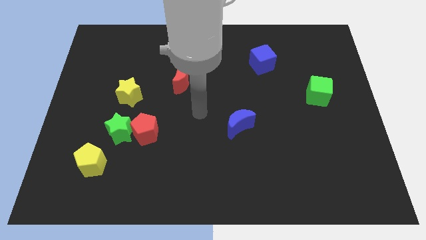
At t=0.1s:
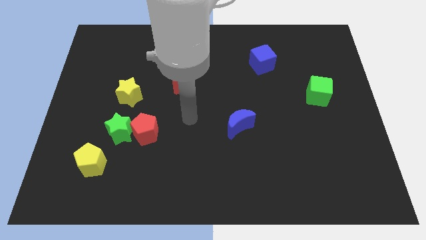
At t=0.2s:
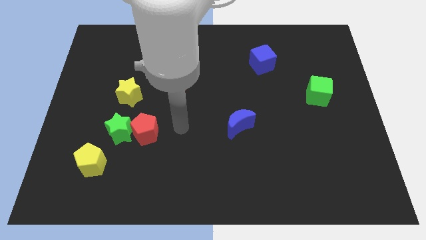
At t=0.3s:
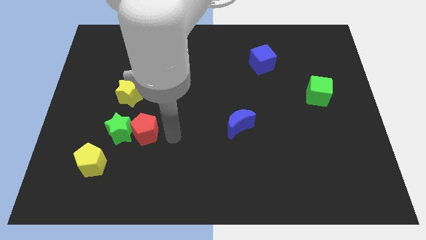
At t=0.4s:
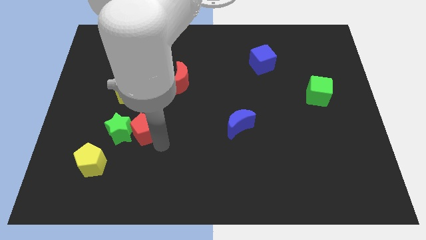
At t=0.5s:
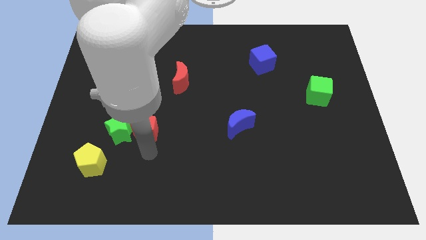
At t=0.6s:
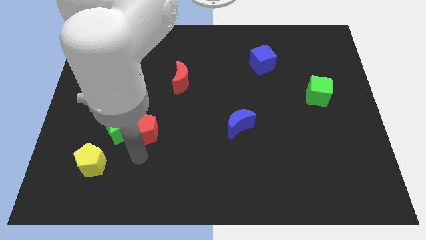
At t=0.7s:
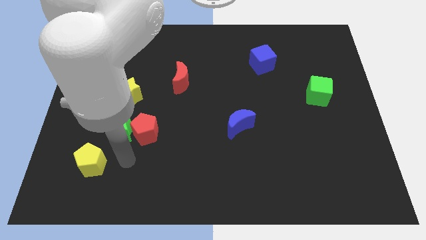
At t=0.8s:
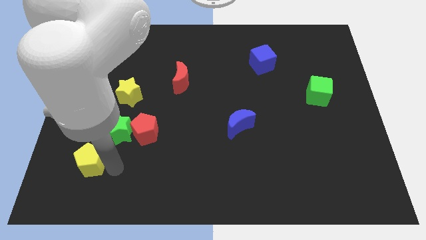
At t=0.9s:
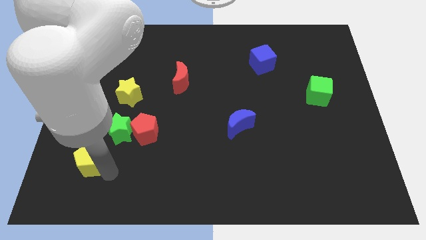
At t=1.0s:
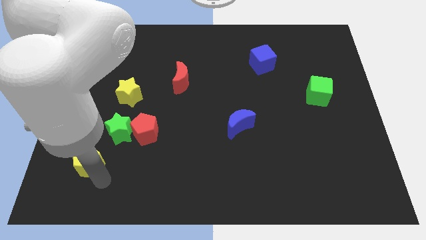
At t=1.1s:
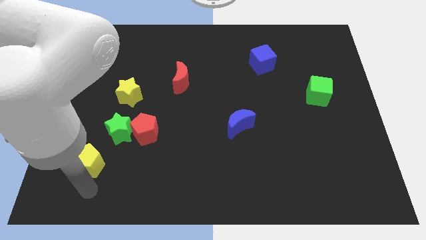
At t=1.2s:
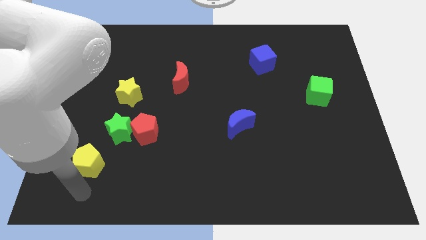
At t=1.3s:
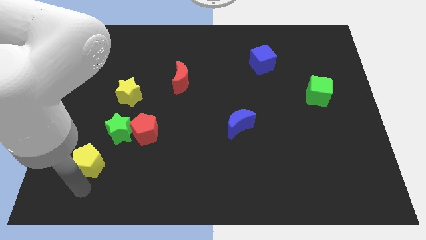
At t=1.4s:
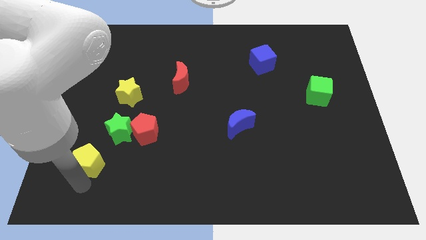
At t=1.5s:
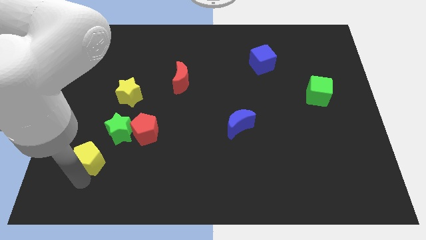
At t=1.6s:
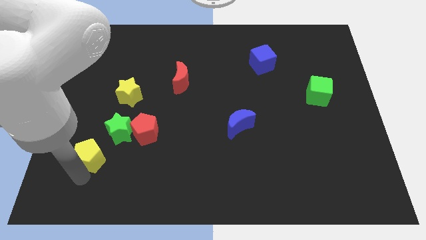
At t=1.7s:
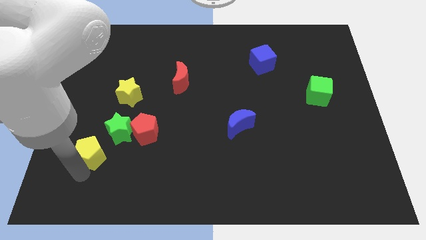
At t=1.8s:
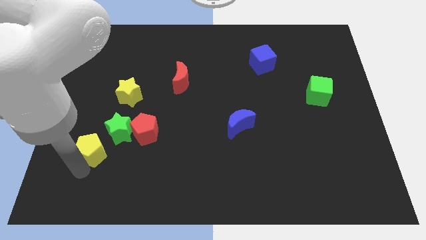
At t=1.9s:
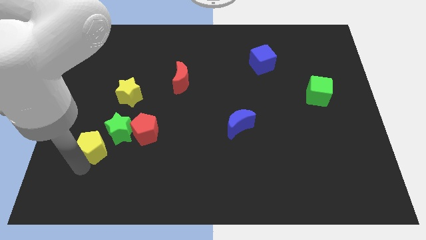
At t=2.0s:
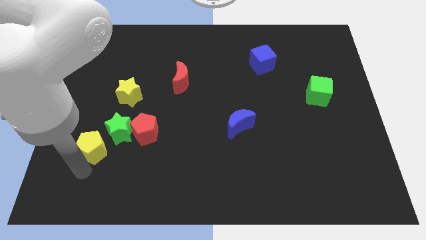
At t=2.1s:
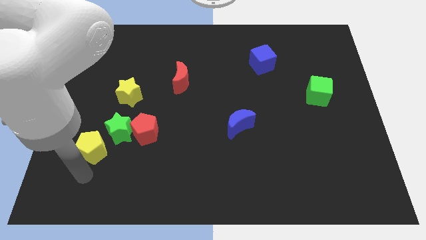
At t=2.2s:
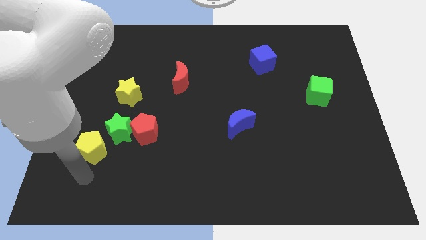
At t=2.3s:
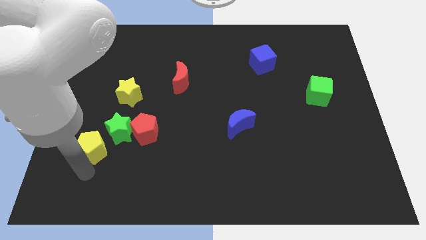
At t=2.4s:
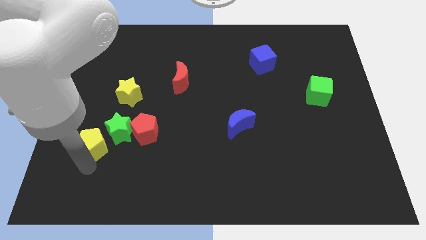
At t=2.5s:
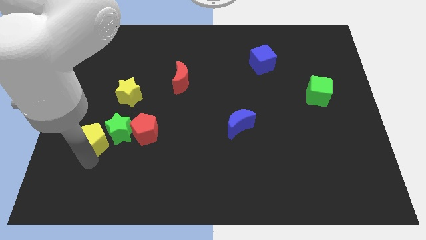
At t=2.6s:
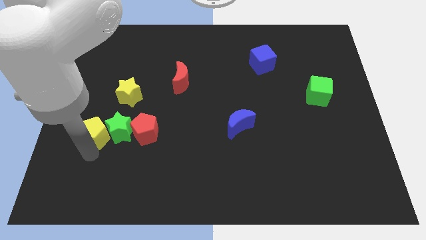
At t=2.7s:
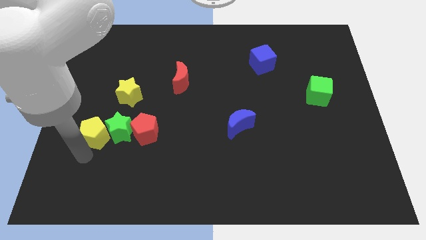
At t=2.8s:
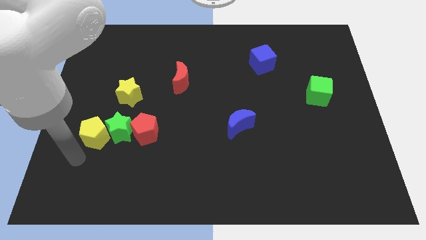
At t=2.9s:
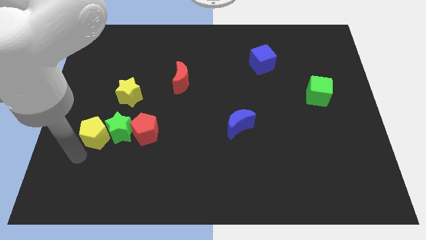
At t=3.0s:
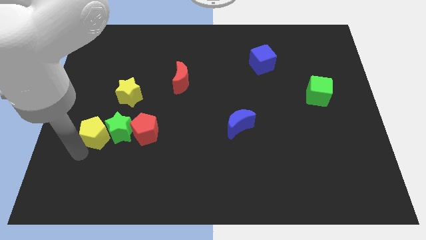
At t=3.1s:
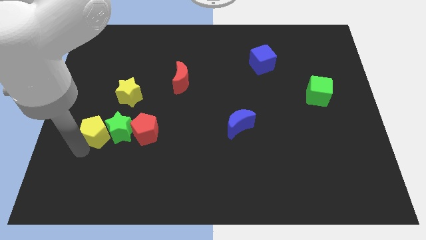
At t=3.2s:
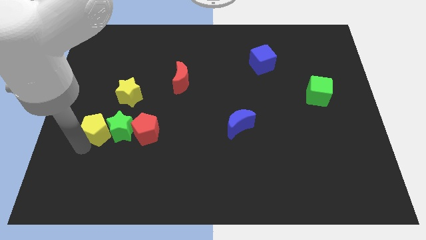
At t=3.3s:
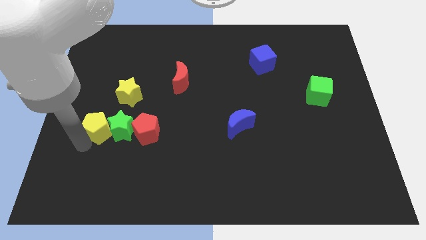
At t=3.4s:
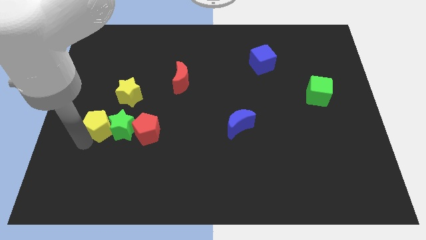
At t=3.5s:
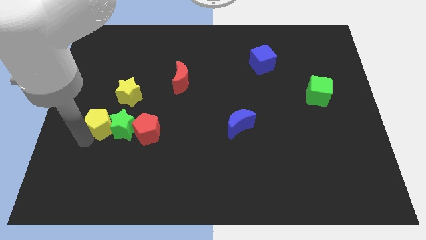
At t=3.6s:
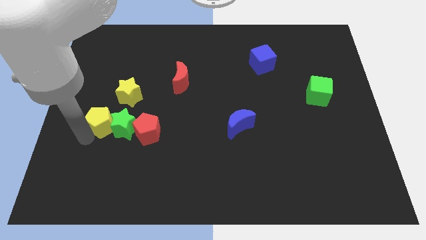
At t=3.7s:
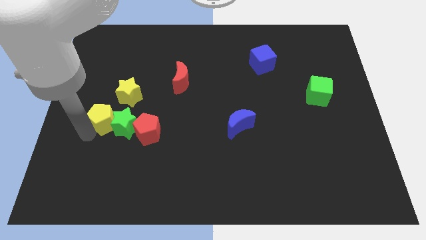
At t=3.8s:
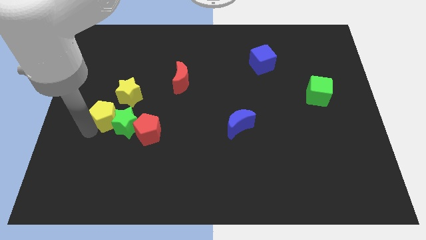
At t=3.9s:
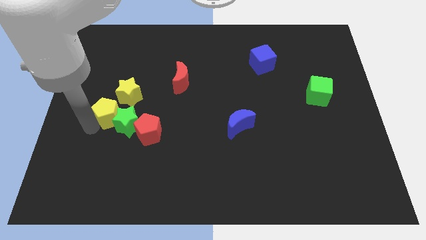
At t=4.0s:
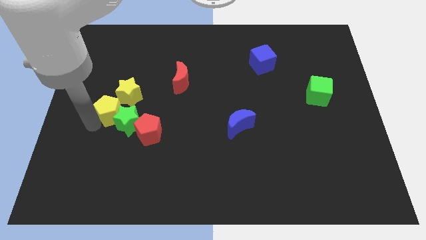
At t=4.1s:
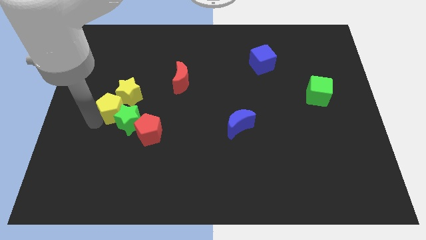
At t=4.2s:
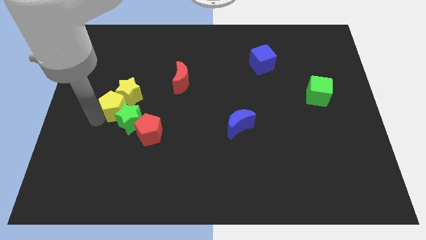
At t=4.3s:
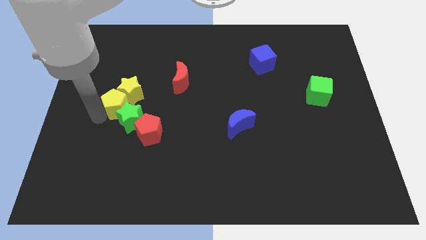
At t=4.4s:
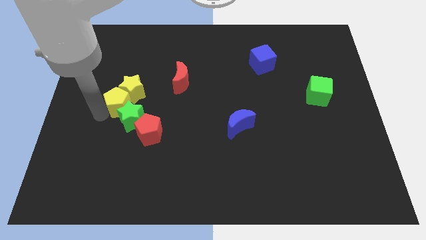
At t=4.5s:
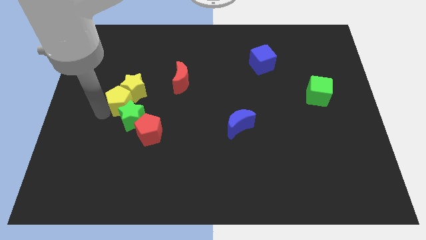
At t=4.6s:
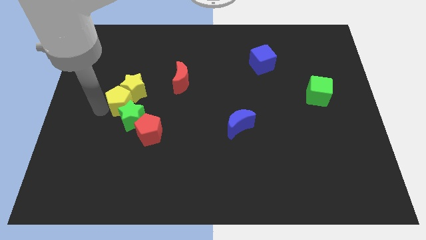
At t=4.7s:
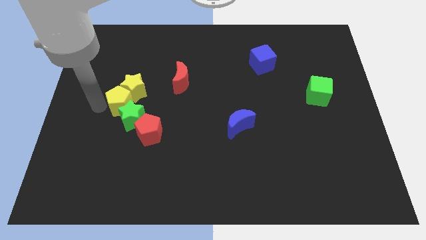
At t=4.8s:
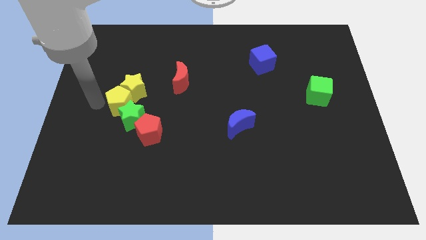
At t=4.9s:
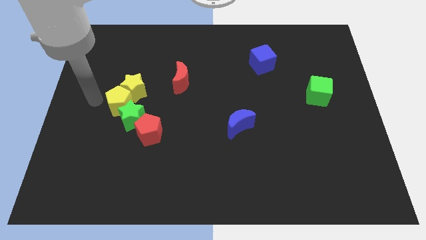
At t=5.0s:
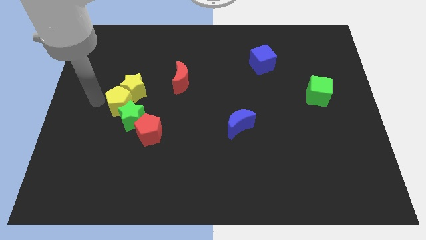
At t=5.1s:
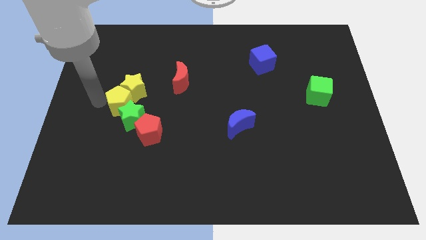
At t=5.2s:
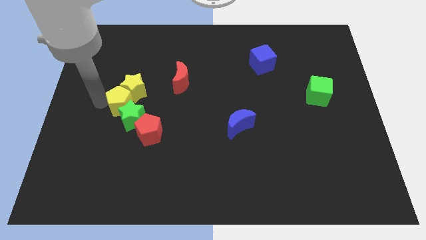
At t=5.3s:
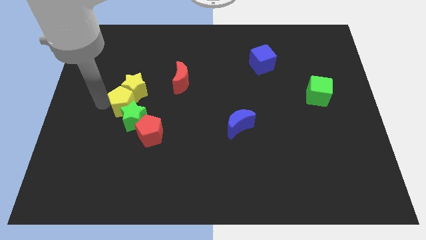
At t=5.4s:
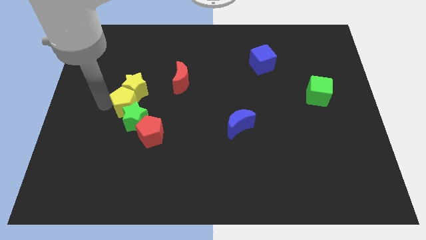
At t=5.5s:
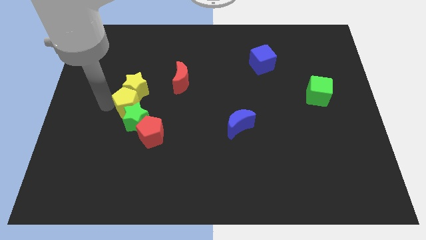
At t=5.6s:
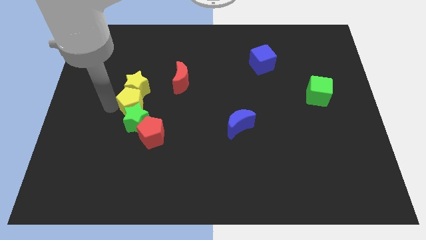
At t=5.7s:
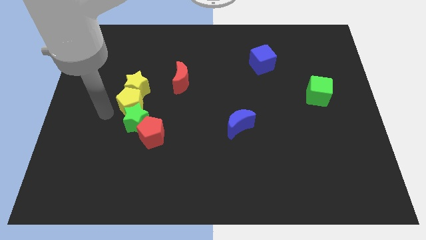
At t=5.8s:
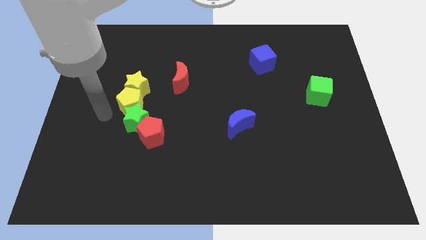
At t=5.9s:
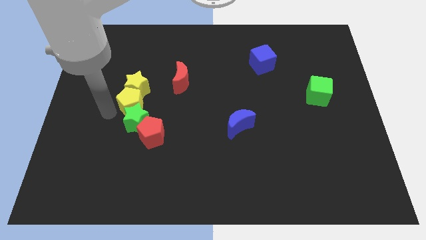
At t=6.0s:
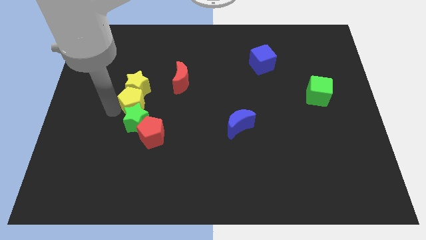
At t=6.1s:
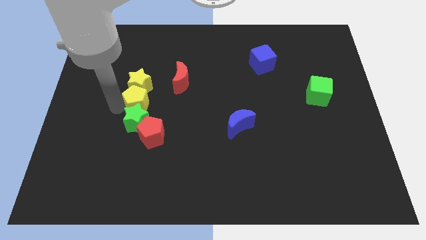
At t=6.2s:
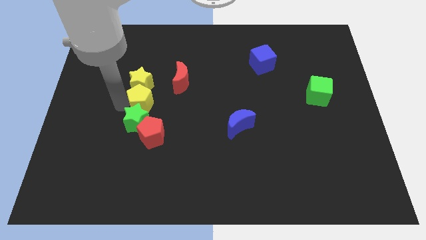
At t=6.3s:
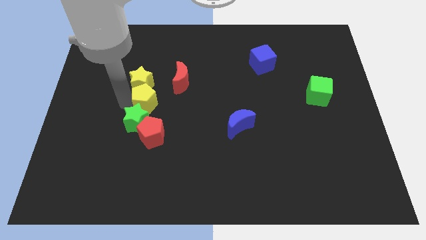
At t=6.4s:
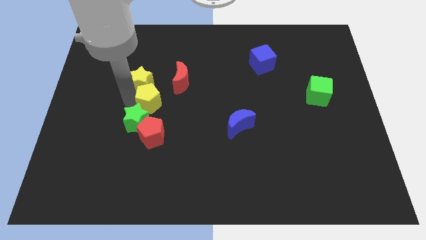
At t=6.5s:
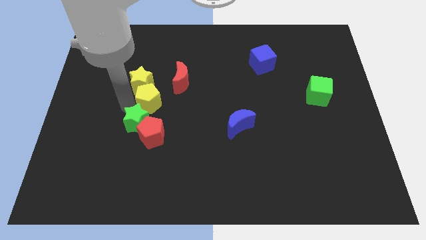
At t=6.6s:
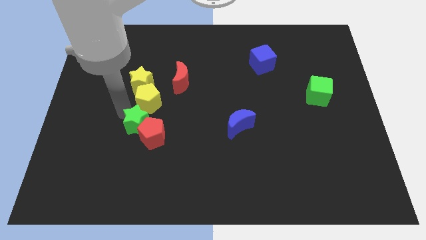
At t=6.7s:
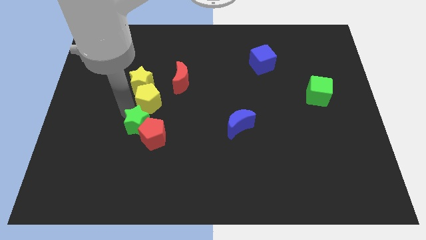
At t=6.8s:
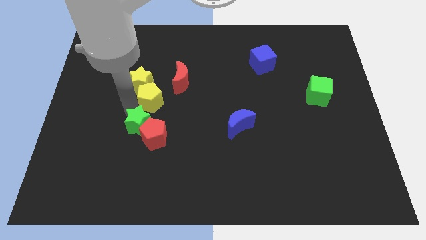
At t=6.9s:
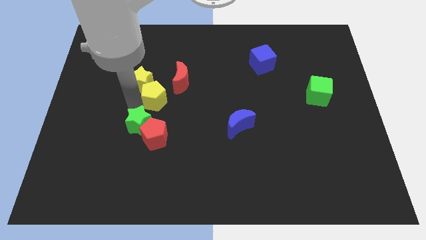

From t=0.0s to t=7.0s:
put the yellow pentagon to the right side of the yellow star
